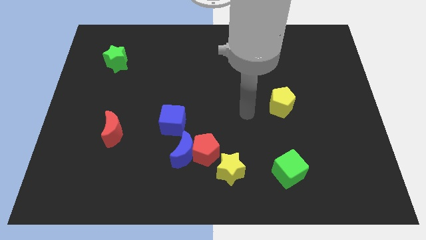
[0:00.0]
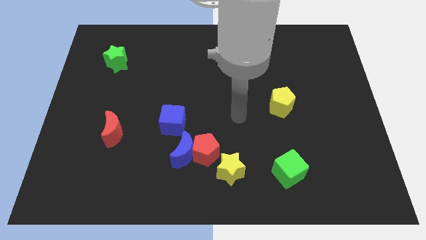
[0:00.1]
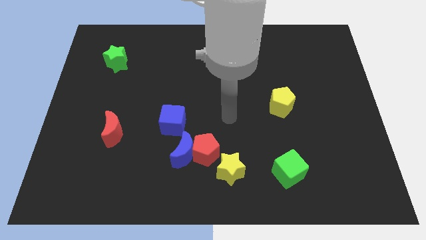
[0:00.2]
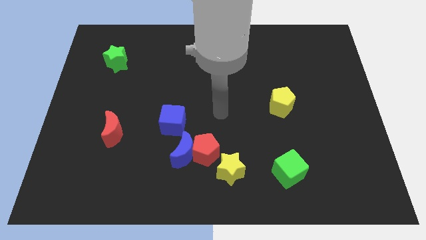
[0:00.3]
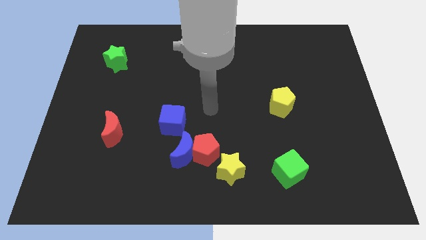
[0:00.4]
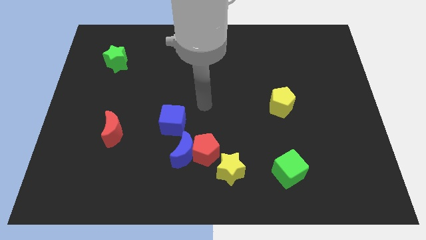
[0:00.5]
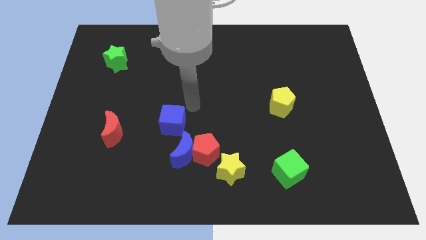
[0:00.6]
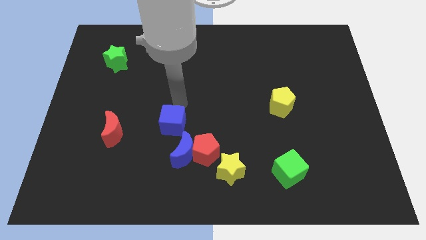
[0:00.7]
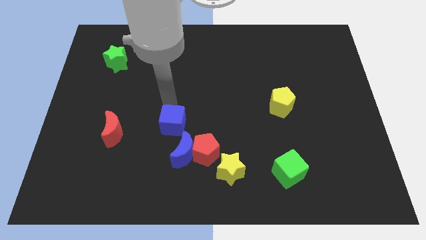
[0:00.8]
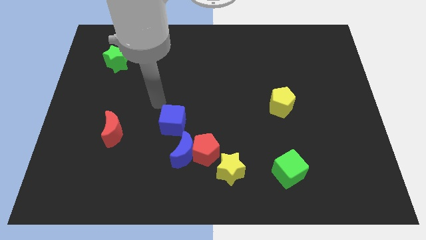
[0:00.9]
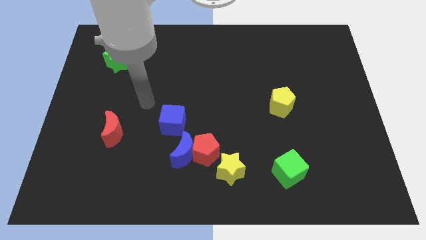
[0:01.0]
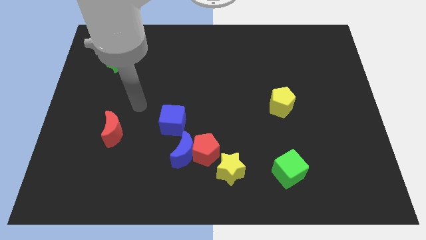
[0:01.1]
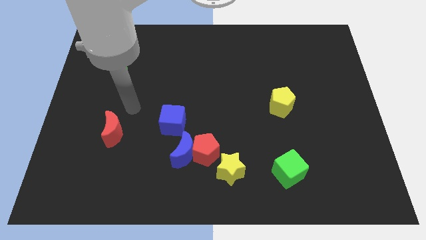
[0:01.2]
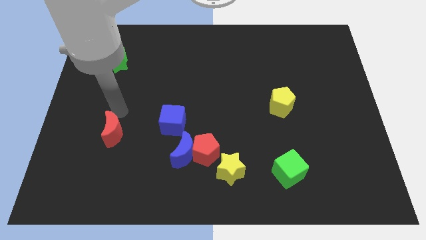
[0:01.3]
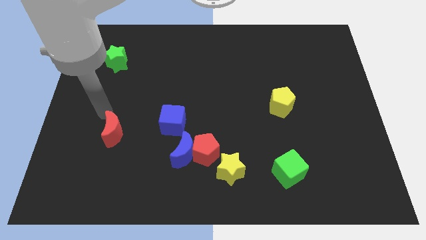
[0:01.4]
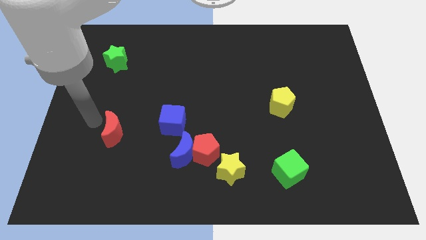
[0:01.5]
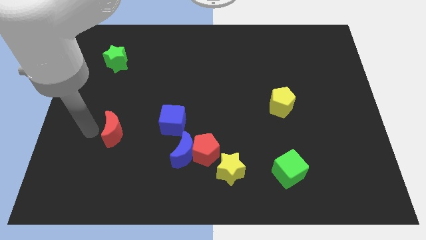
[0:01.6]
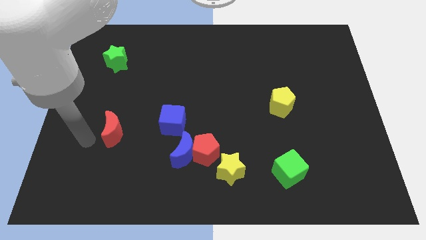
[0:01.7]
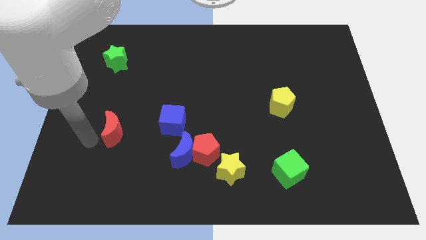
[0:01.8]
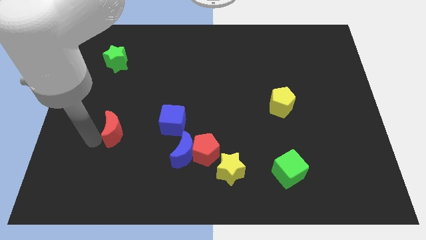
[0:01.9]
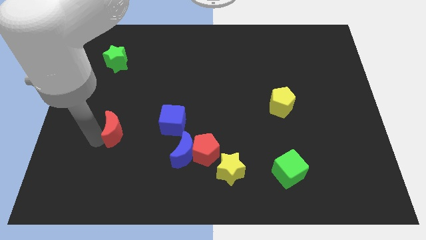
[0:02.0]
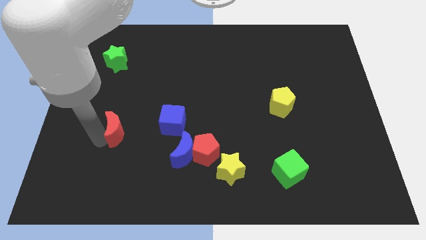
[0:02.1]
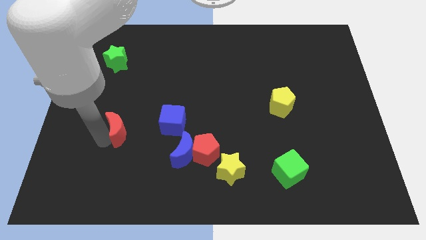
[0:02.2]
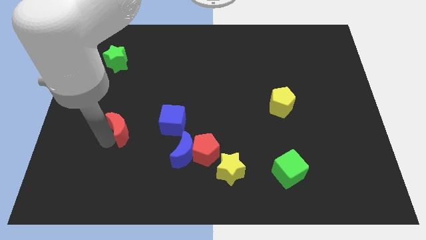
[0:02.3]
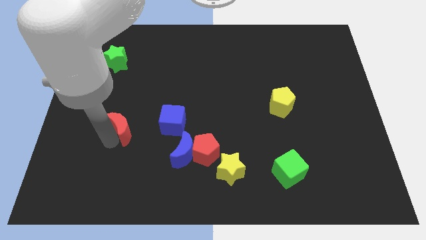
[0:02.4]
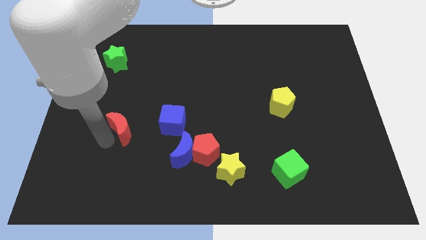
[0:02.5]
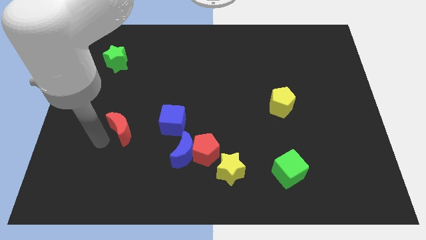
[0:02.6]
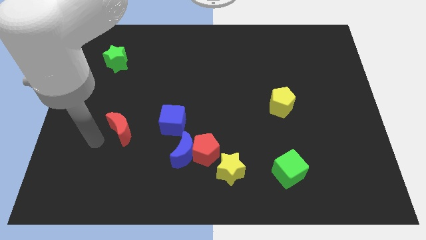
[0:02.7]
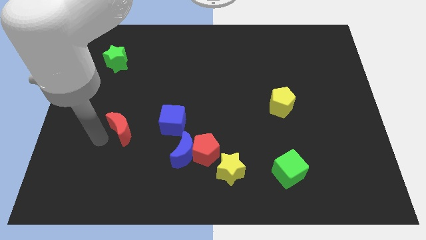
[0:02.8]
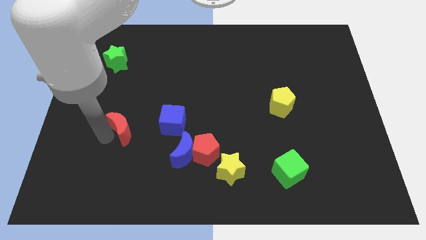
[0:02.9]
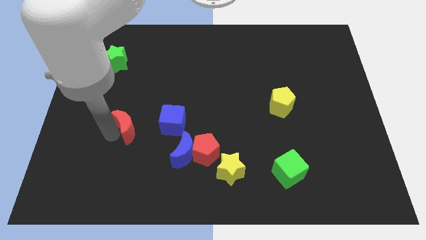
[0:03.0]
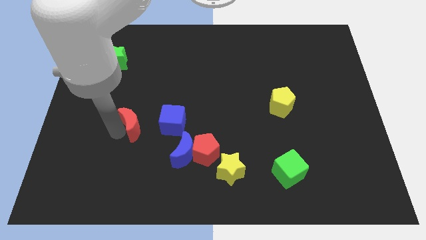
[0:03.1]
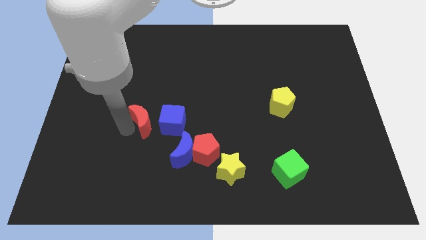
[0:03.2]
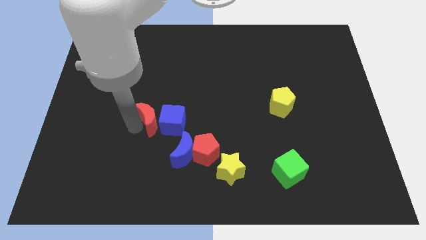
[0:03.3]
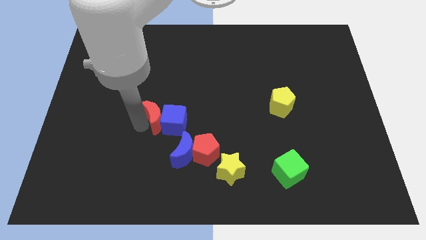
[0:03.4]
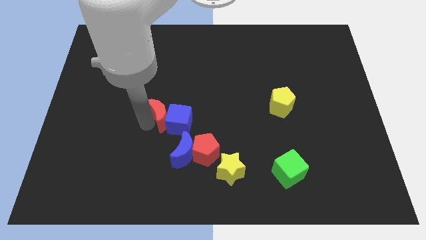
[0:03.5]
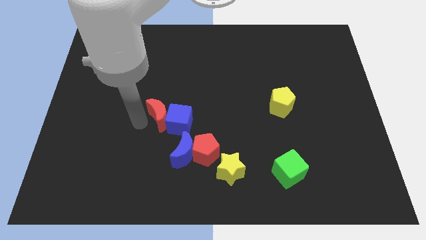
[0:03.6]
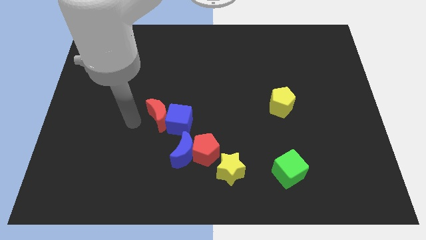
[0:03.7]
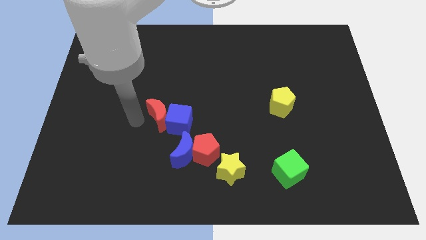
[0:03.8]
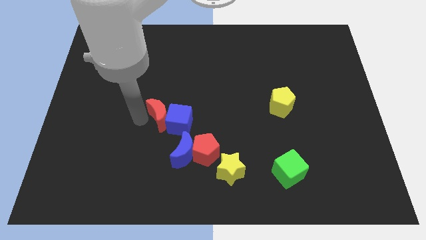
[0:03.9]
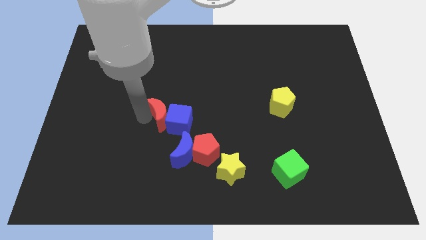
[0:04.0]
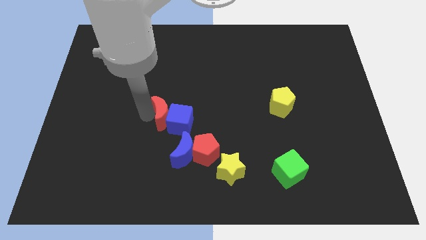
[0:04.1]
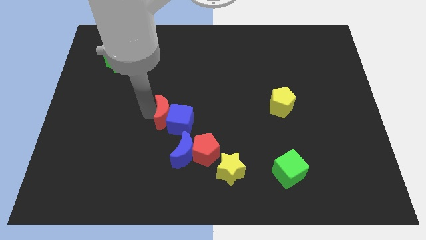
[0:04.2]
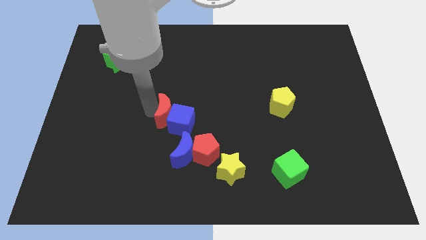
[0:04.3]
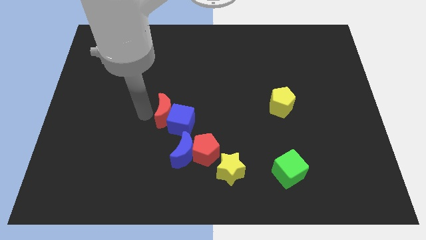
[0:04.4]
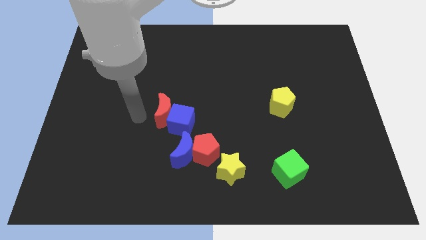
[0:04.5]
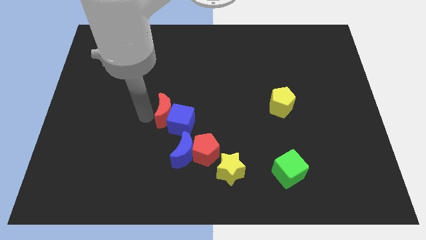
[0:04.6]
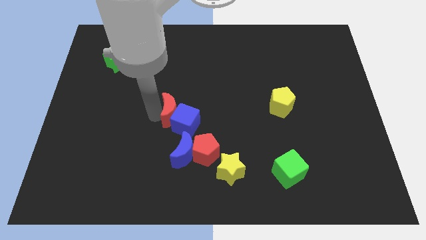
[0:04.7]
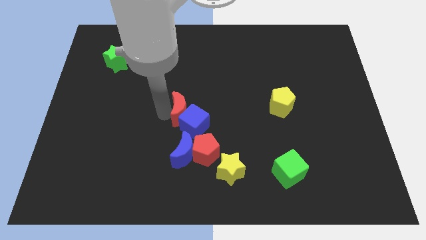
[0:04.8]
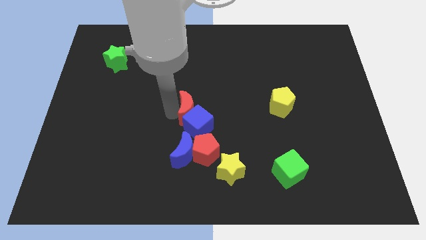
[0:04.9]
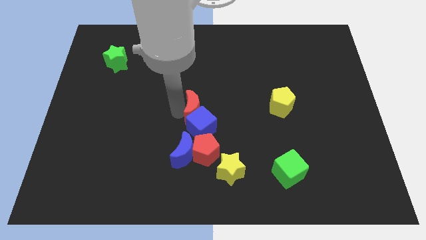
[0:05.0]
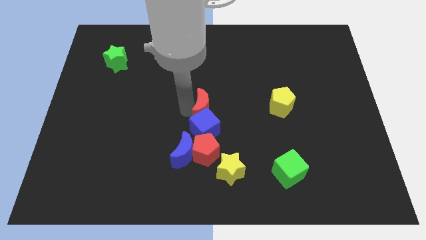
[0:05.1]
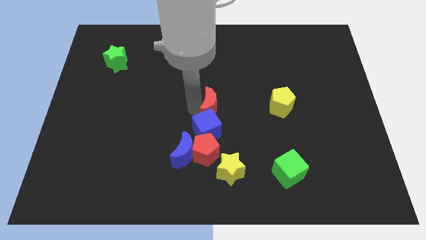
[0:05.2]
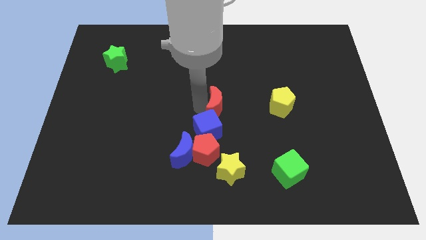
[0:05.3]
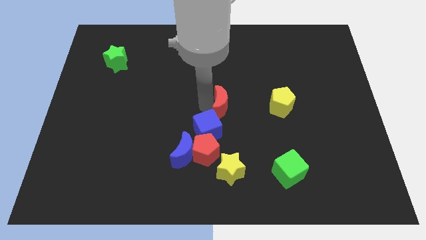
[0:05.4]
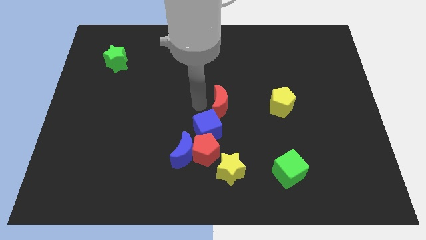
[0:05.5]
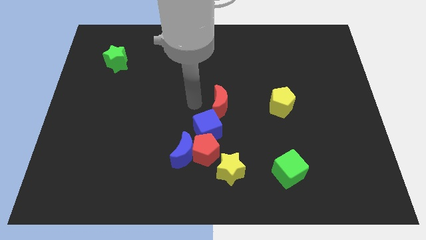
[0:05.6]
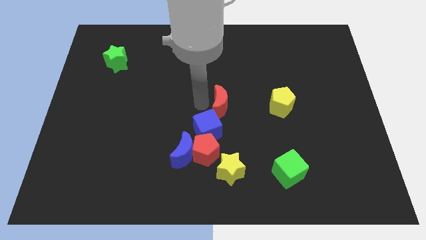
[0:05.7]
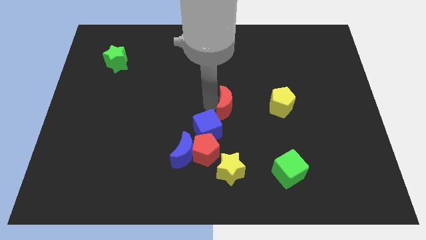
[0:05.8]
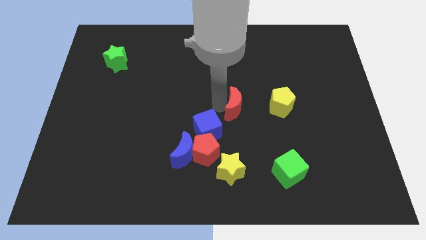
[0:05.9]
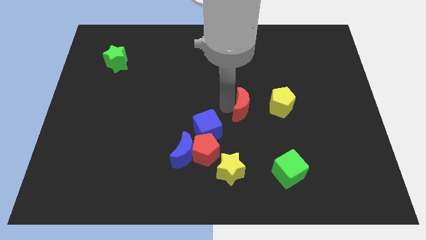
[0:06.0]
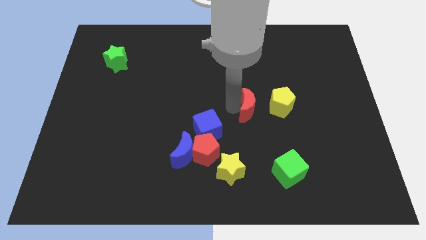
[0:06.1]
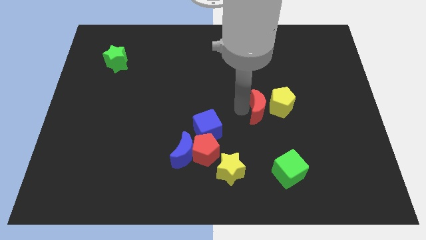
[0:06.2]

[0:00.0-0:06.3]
slide the red moon next to the yellow pentagon
